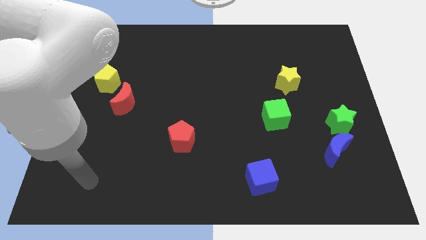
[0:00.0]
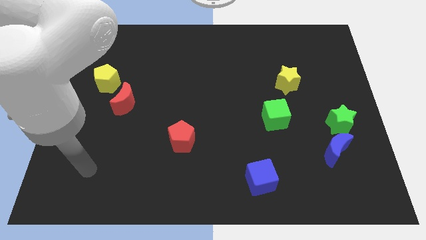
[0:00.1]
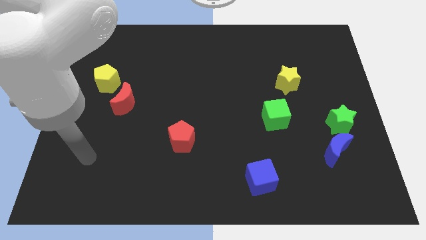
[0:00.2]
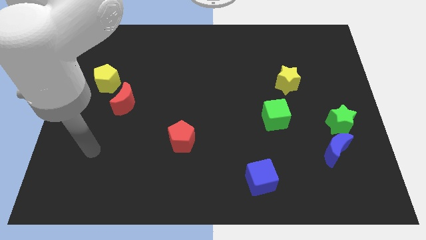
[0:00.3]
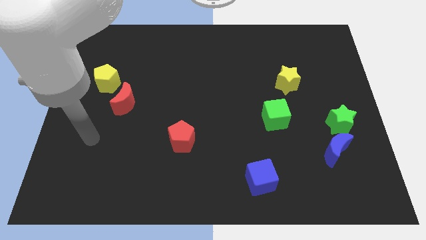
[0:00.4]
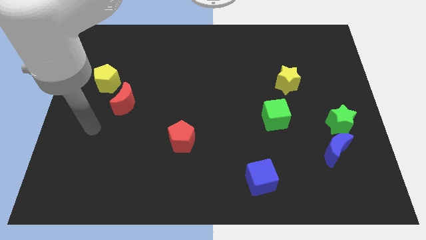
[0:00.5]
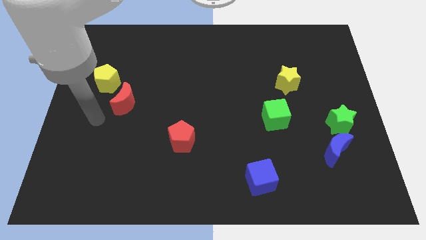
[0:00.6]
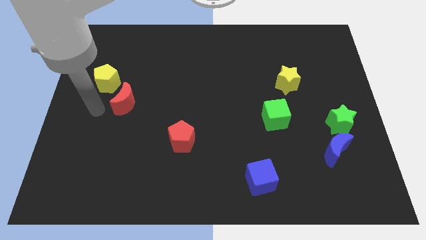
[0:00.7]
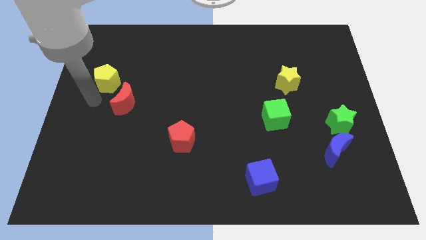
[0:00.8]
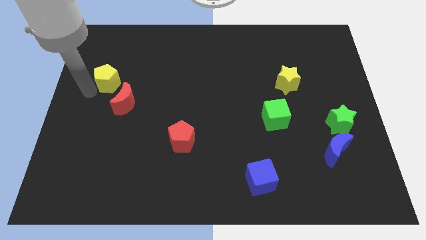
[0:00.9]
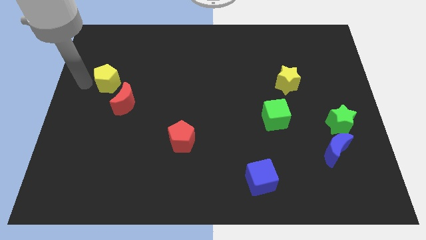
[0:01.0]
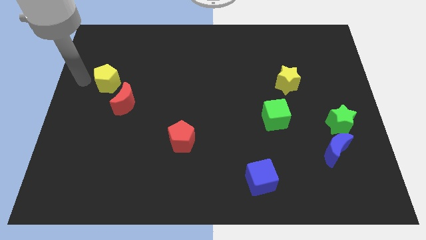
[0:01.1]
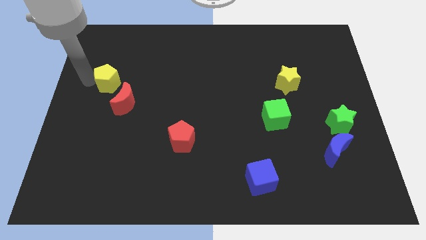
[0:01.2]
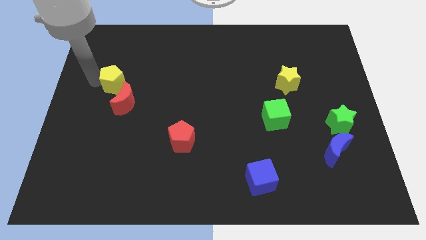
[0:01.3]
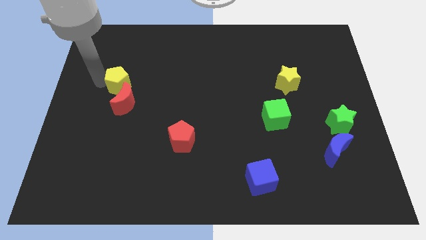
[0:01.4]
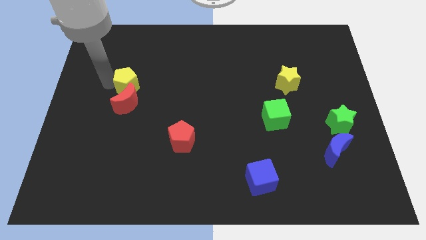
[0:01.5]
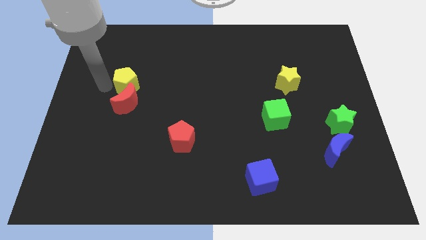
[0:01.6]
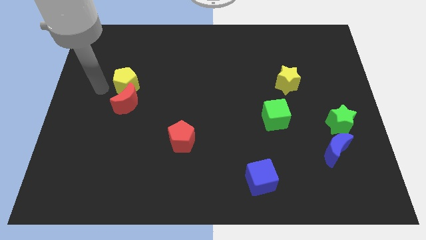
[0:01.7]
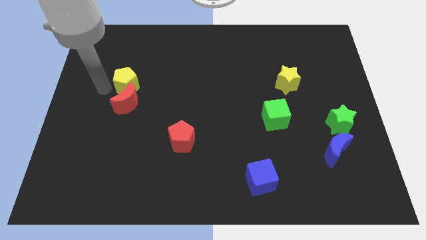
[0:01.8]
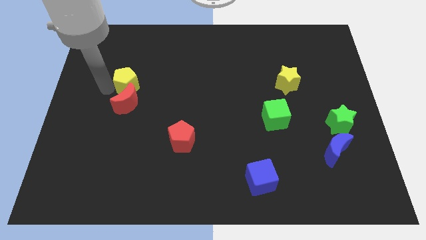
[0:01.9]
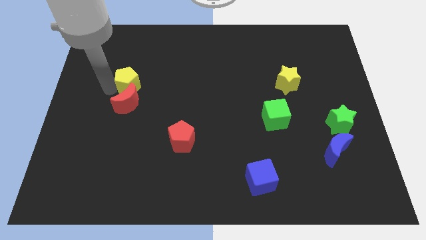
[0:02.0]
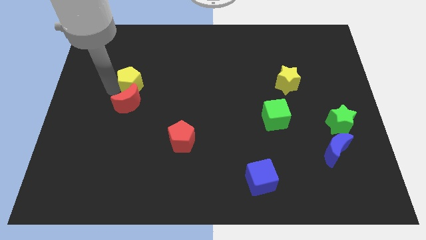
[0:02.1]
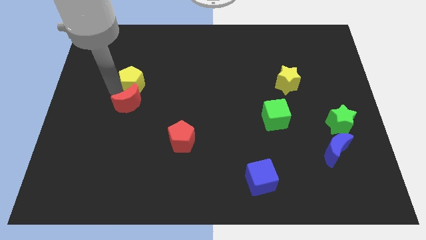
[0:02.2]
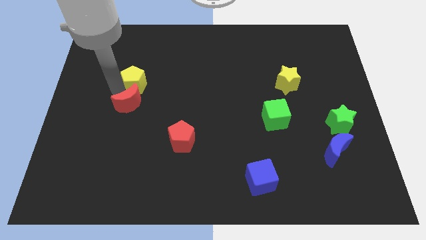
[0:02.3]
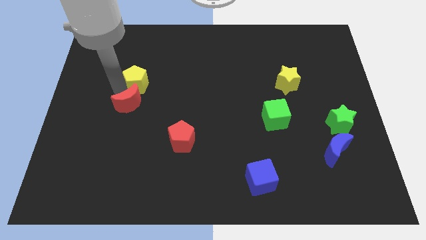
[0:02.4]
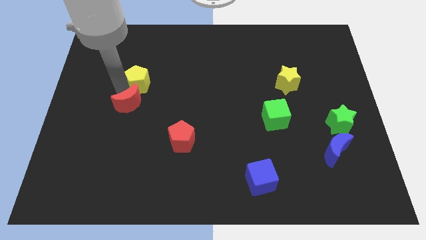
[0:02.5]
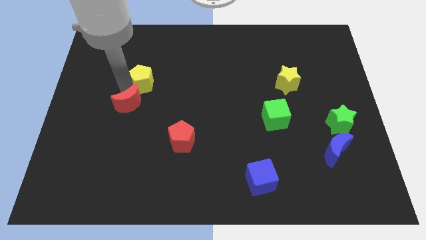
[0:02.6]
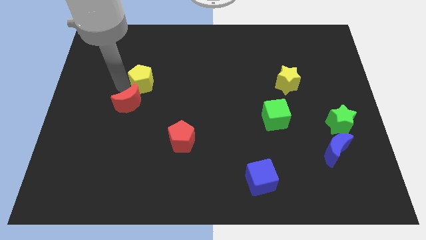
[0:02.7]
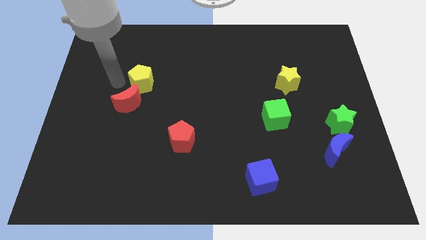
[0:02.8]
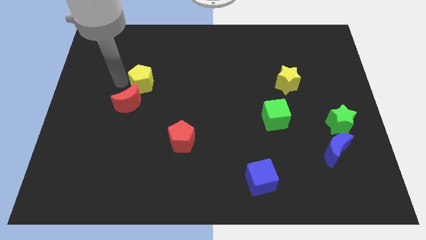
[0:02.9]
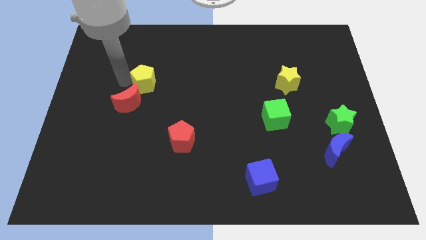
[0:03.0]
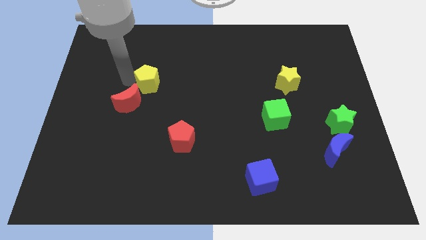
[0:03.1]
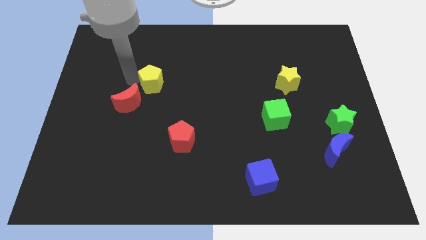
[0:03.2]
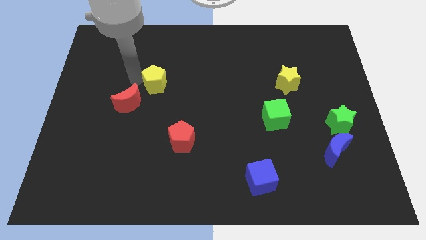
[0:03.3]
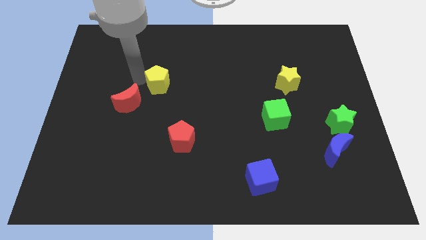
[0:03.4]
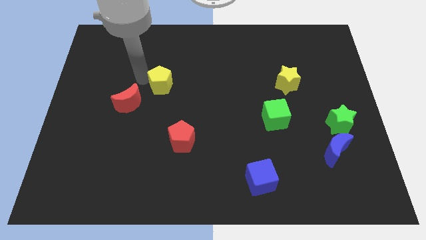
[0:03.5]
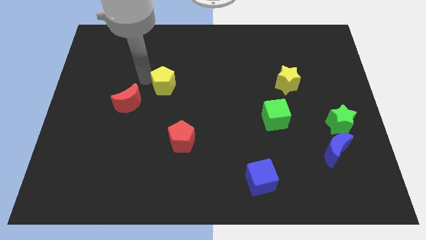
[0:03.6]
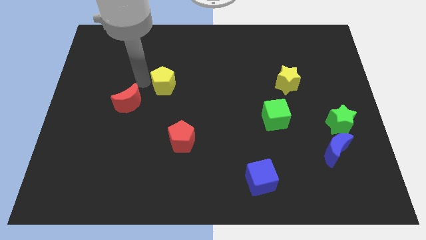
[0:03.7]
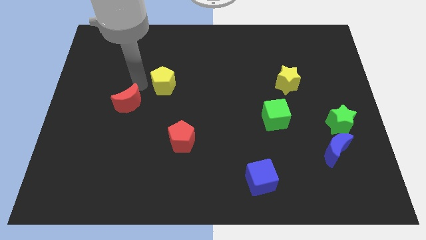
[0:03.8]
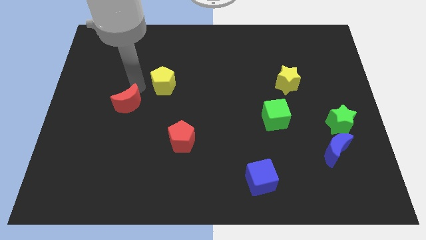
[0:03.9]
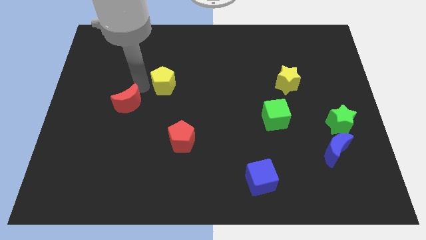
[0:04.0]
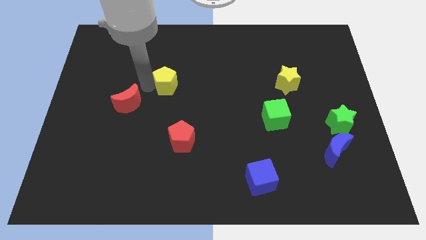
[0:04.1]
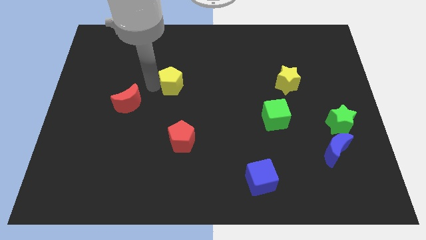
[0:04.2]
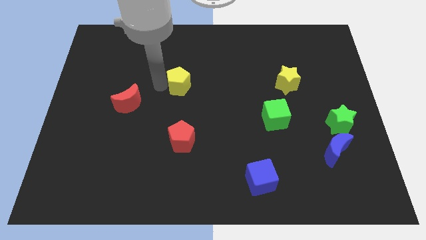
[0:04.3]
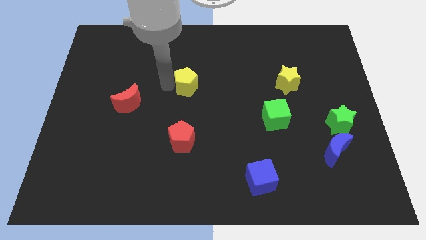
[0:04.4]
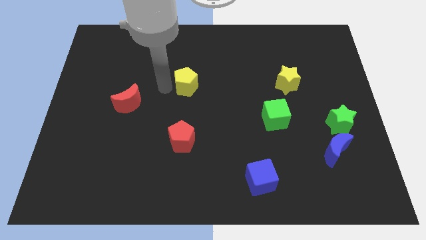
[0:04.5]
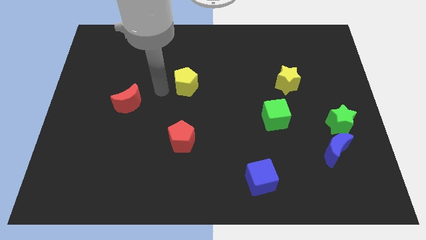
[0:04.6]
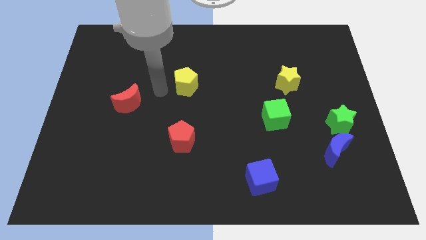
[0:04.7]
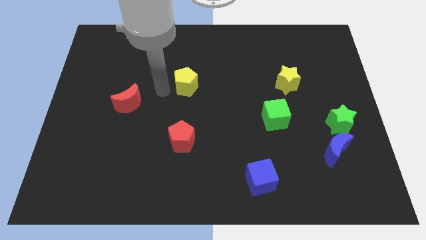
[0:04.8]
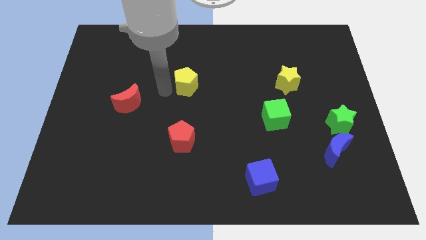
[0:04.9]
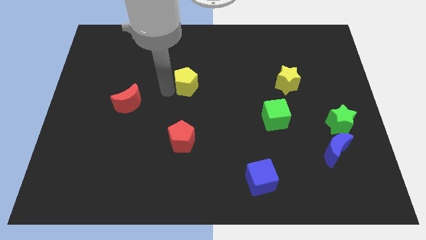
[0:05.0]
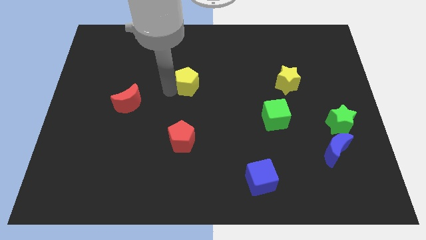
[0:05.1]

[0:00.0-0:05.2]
slide the yellow pentagon right

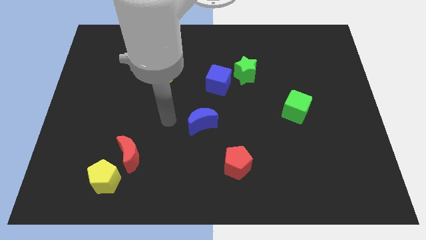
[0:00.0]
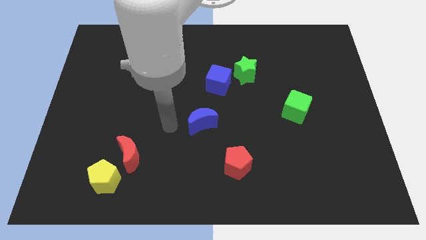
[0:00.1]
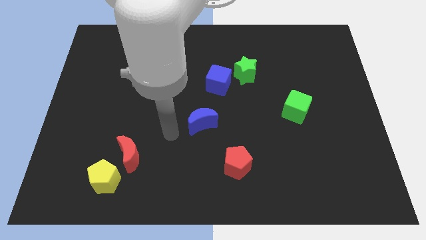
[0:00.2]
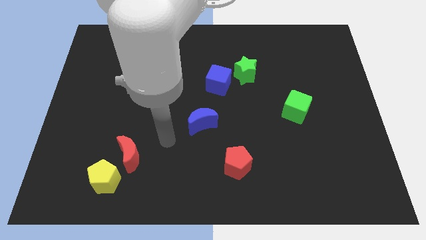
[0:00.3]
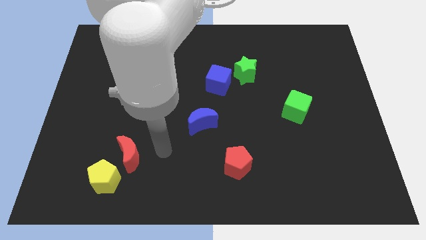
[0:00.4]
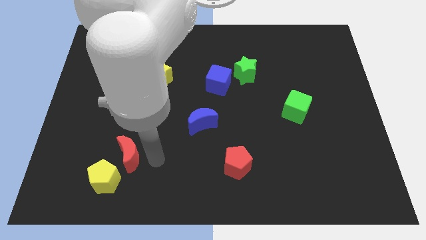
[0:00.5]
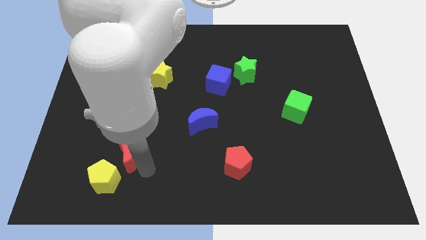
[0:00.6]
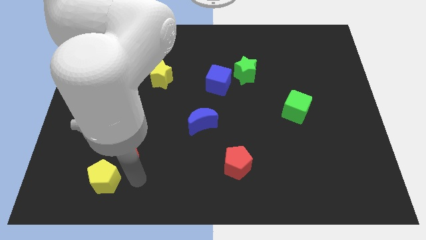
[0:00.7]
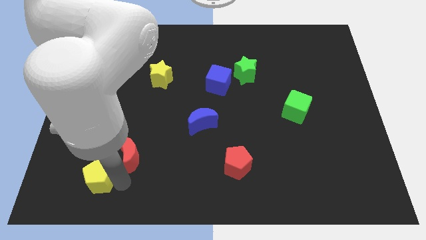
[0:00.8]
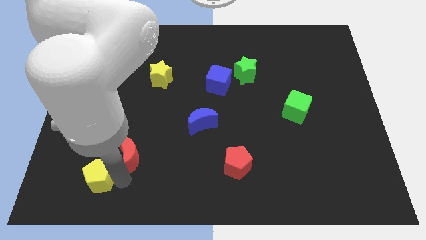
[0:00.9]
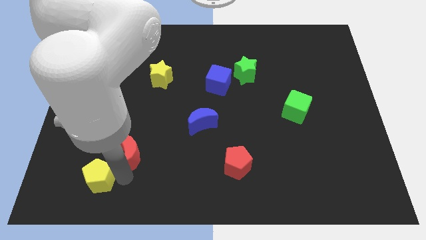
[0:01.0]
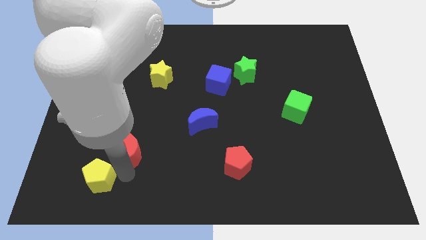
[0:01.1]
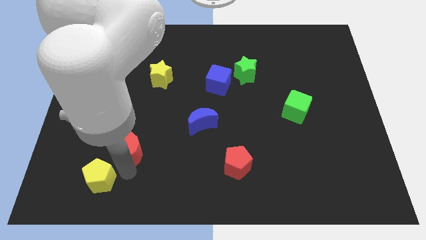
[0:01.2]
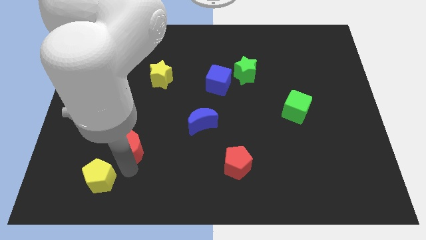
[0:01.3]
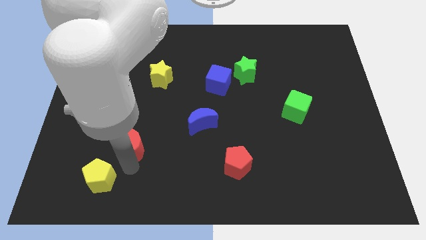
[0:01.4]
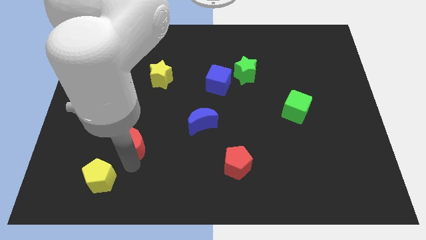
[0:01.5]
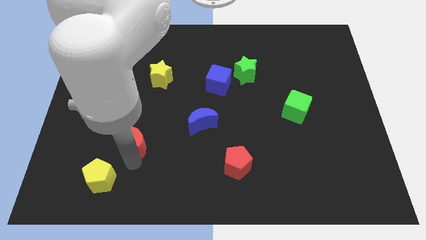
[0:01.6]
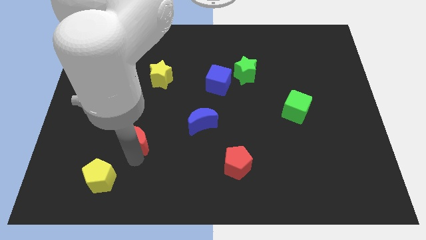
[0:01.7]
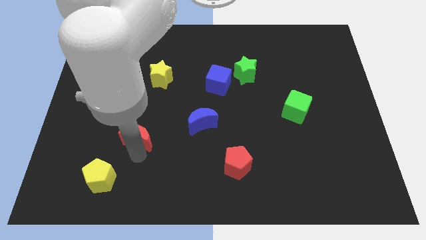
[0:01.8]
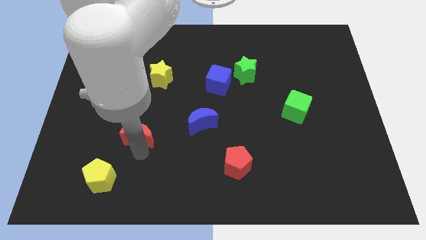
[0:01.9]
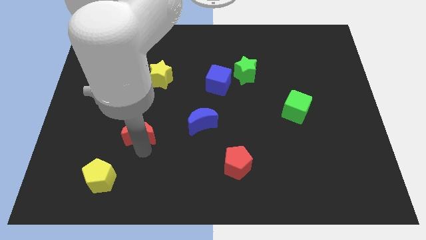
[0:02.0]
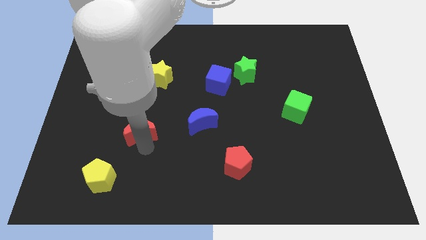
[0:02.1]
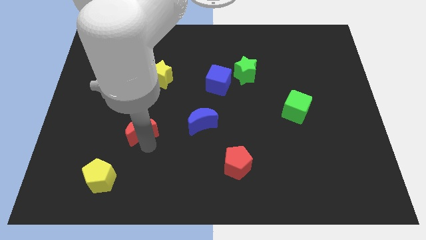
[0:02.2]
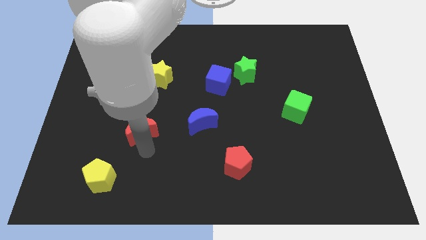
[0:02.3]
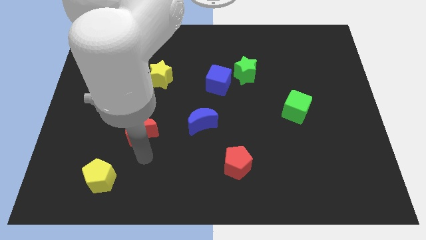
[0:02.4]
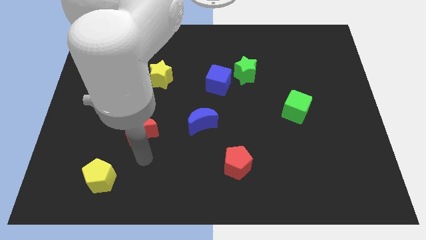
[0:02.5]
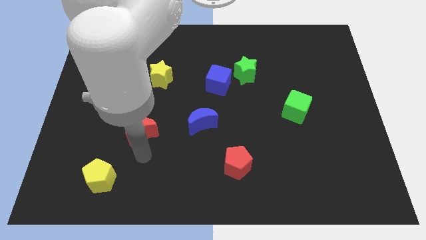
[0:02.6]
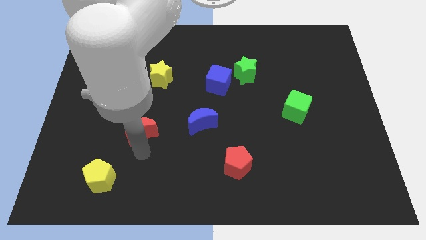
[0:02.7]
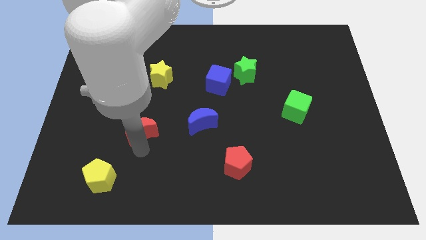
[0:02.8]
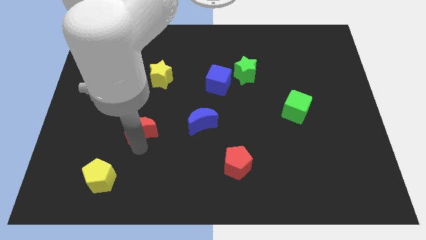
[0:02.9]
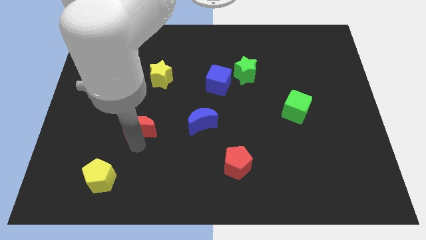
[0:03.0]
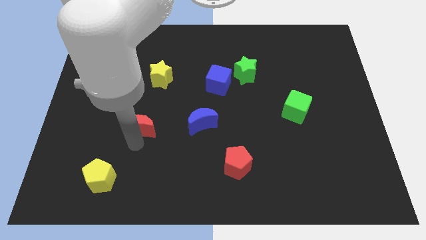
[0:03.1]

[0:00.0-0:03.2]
slide the red moon upwards a little
